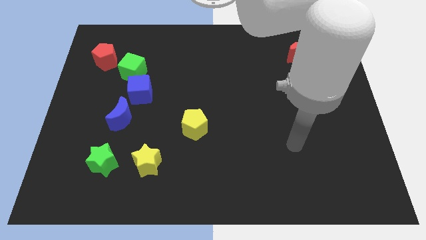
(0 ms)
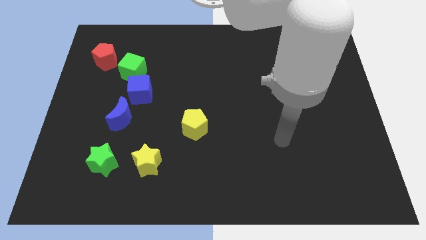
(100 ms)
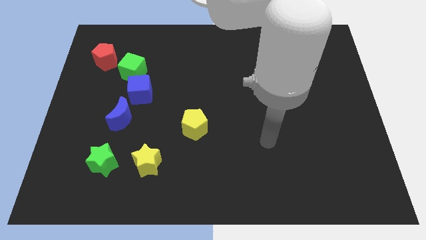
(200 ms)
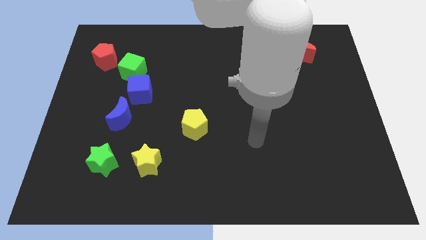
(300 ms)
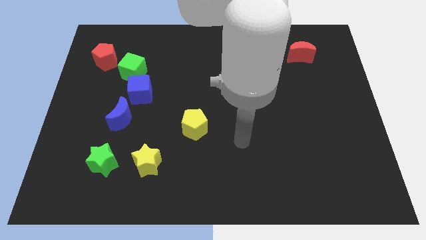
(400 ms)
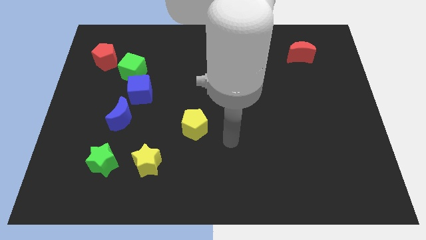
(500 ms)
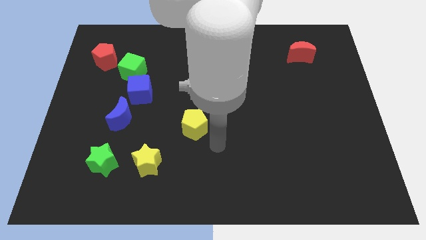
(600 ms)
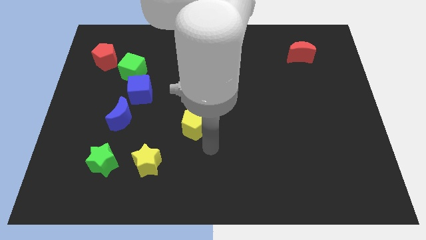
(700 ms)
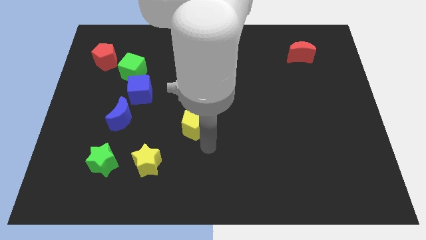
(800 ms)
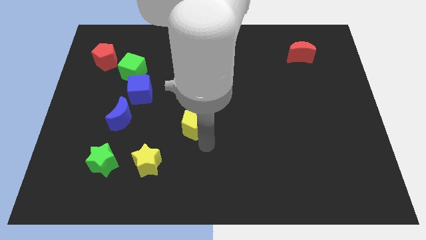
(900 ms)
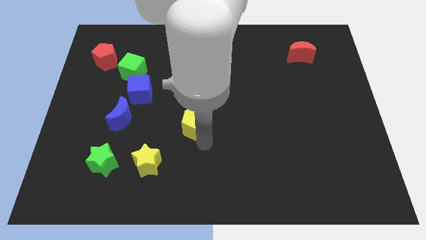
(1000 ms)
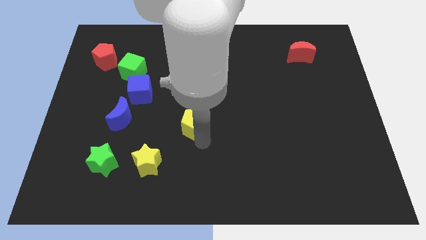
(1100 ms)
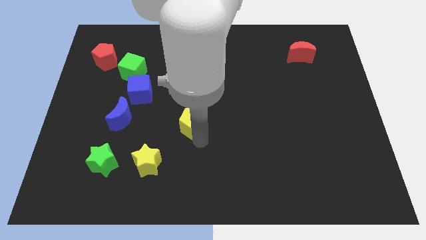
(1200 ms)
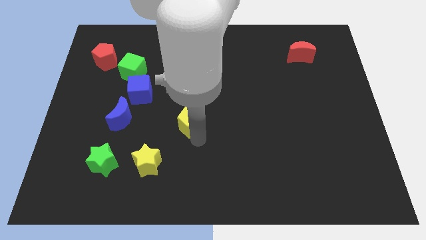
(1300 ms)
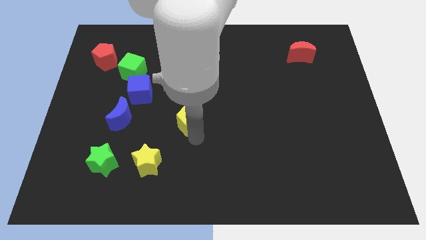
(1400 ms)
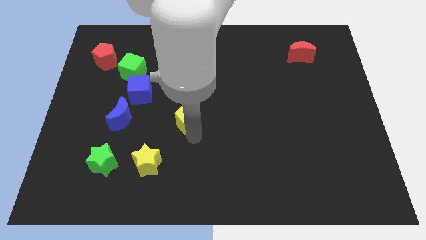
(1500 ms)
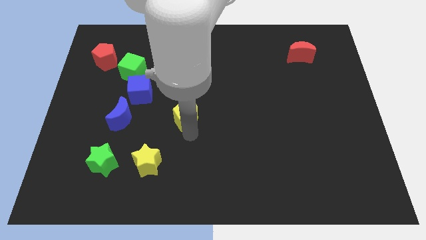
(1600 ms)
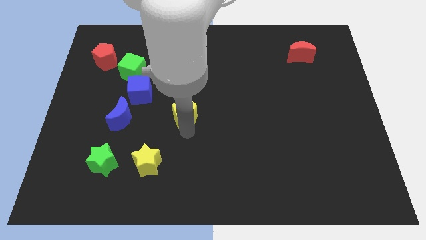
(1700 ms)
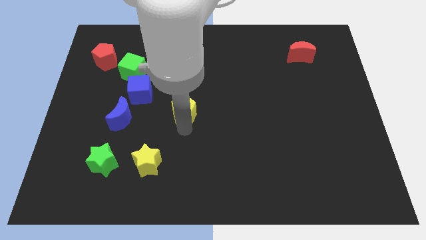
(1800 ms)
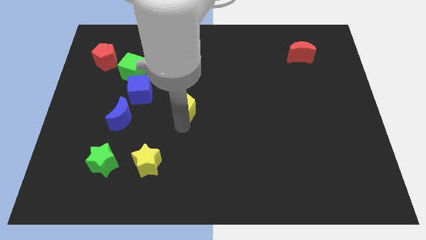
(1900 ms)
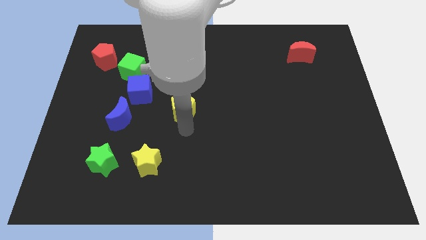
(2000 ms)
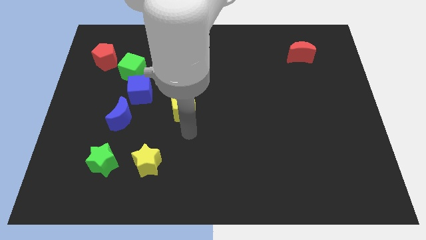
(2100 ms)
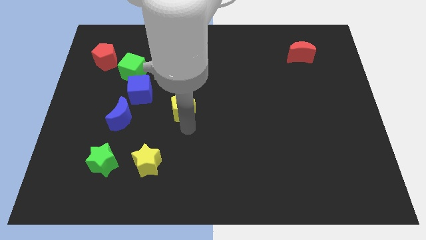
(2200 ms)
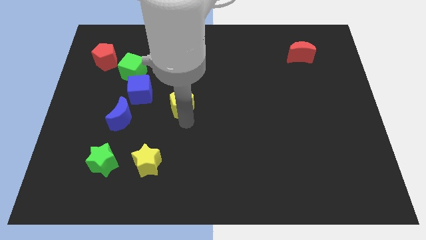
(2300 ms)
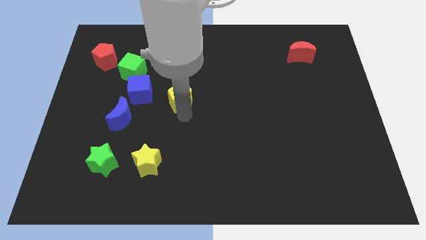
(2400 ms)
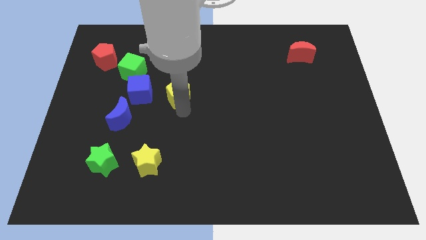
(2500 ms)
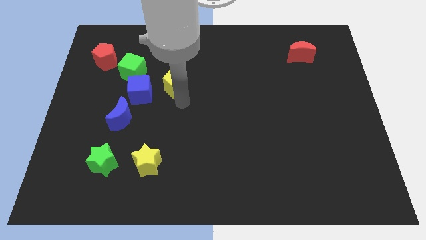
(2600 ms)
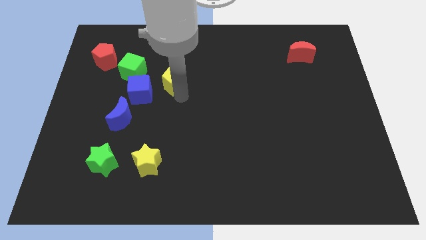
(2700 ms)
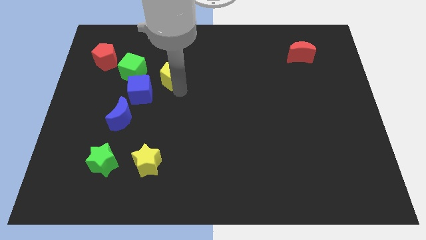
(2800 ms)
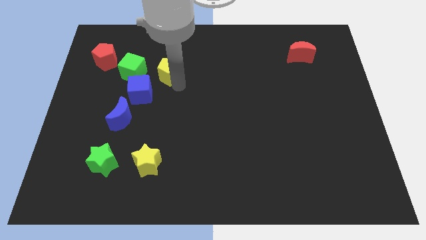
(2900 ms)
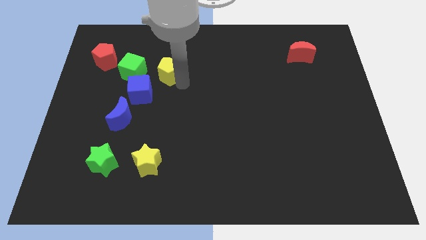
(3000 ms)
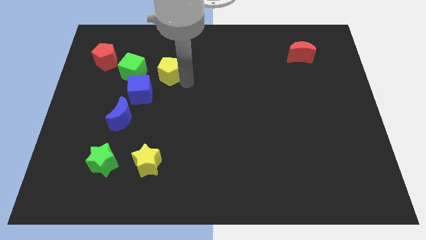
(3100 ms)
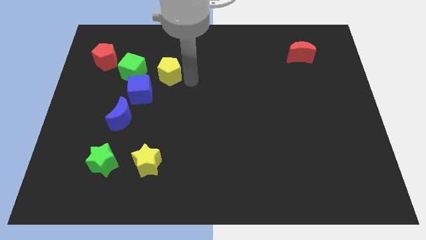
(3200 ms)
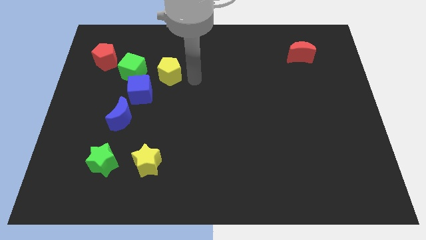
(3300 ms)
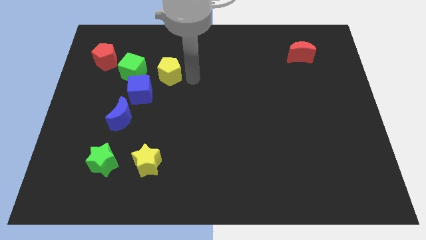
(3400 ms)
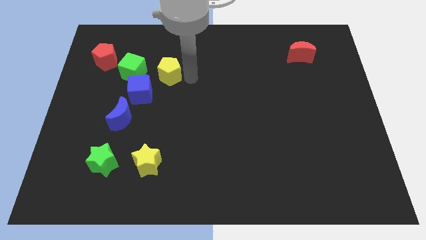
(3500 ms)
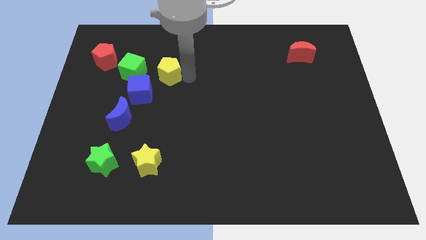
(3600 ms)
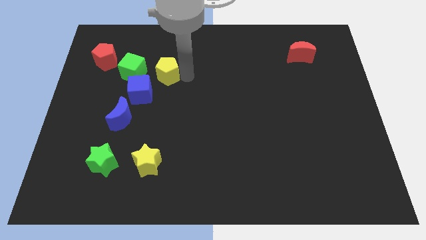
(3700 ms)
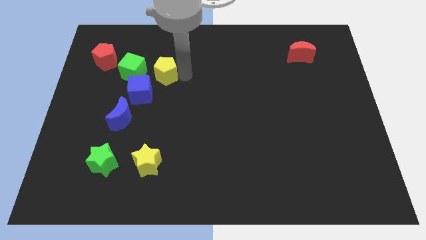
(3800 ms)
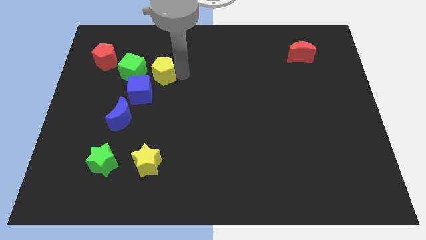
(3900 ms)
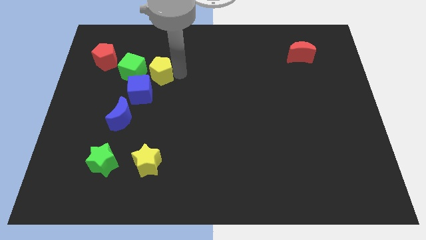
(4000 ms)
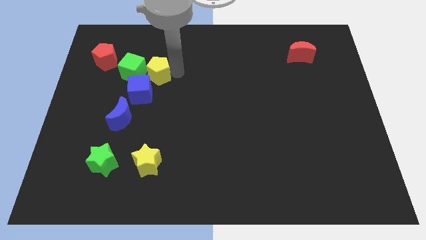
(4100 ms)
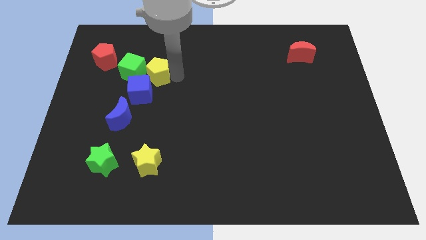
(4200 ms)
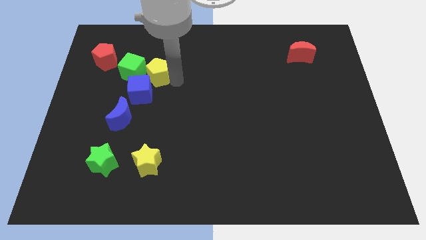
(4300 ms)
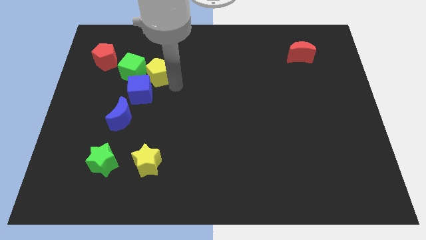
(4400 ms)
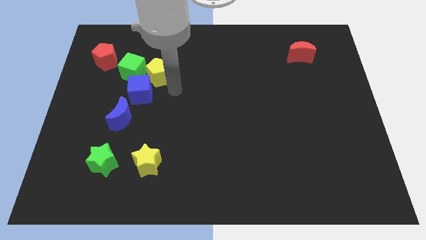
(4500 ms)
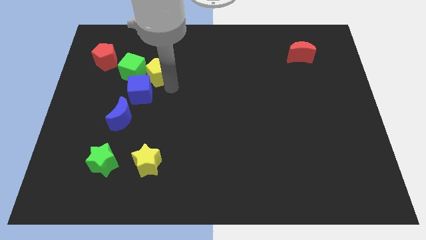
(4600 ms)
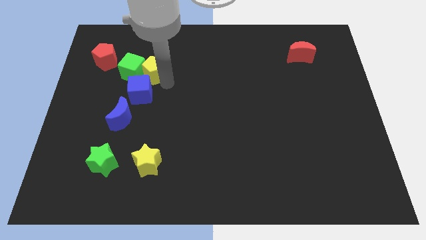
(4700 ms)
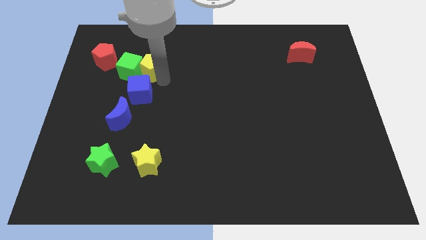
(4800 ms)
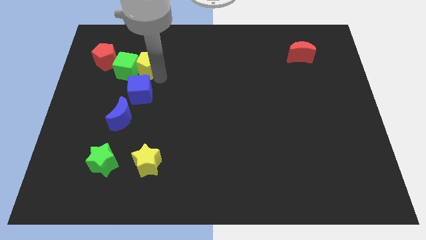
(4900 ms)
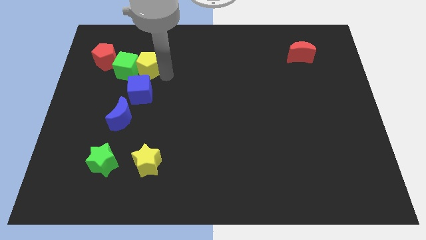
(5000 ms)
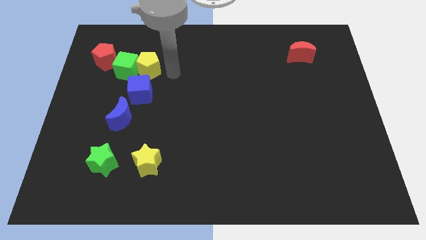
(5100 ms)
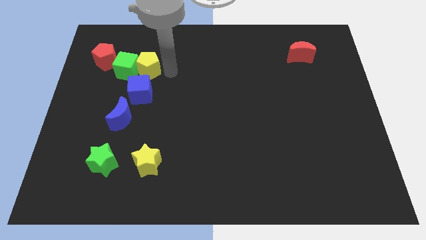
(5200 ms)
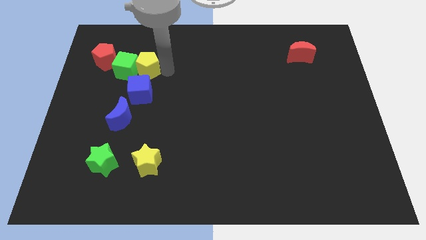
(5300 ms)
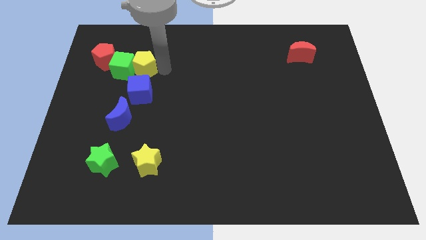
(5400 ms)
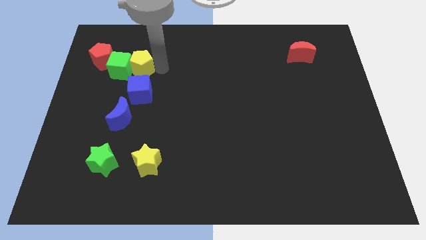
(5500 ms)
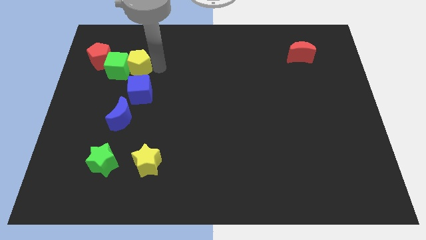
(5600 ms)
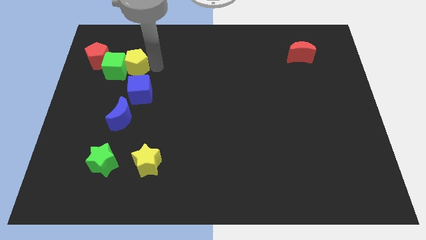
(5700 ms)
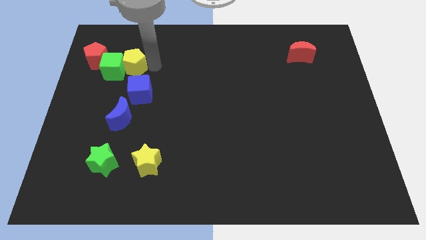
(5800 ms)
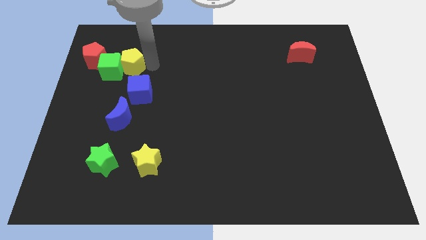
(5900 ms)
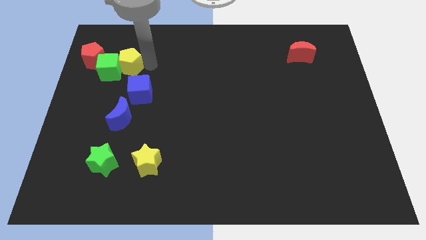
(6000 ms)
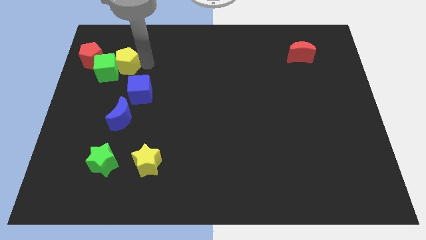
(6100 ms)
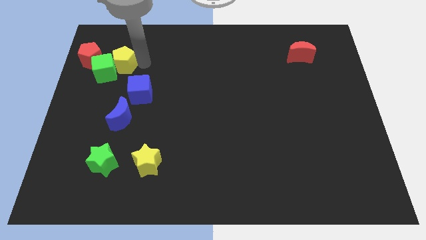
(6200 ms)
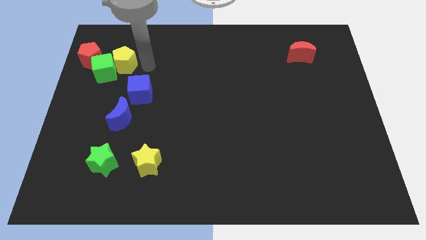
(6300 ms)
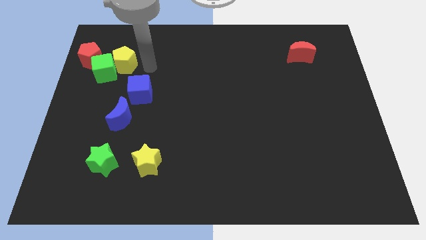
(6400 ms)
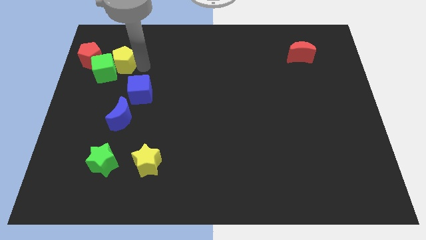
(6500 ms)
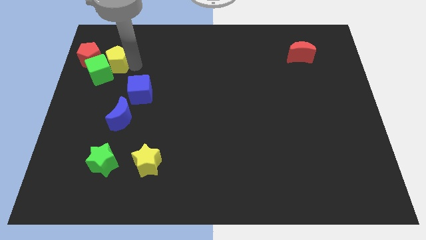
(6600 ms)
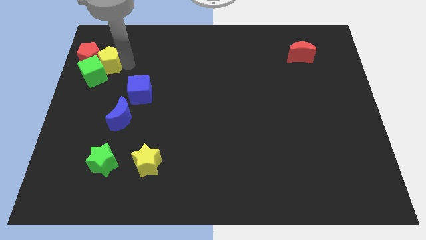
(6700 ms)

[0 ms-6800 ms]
push the yellow pentagon close to the red pentagon
